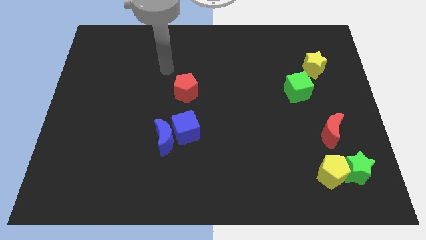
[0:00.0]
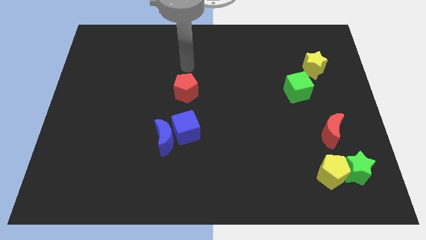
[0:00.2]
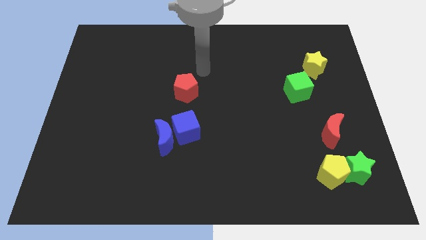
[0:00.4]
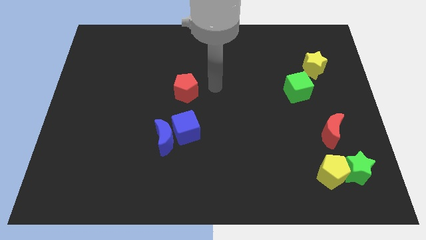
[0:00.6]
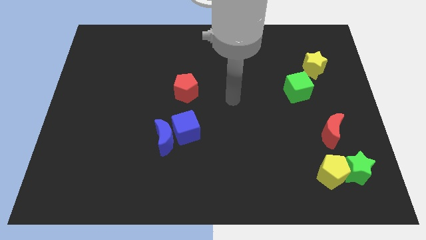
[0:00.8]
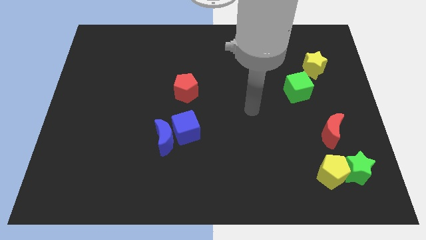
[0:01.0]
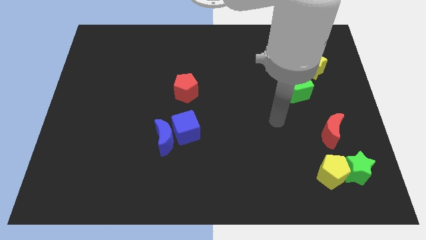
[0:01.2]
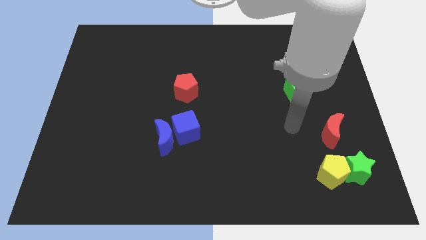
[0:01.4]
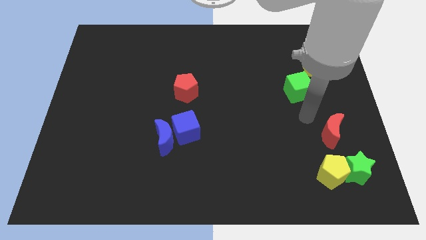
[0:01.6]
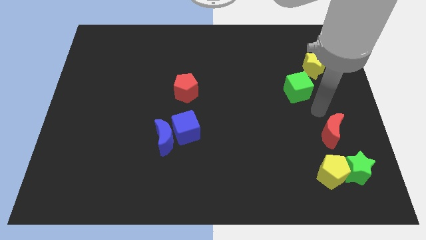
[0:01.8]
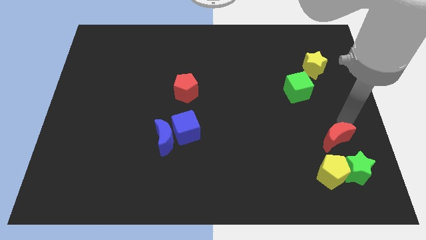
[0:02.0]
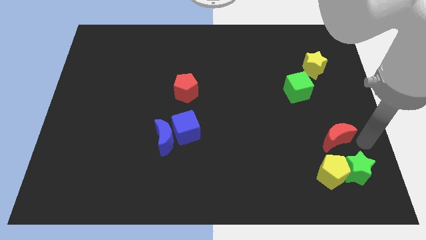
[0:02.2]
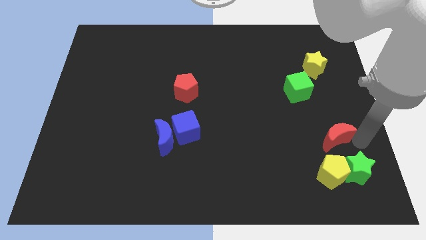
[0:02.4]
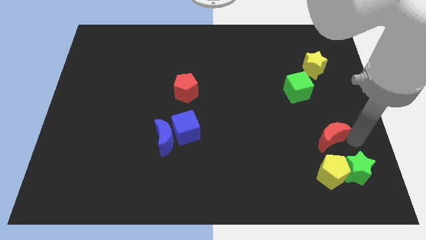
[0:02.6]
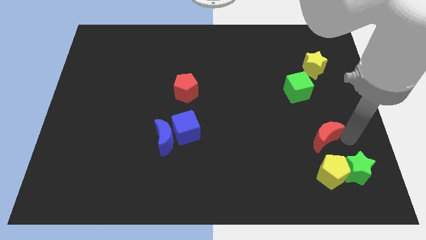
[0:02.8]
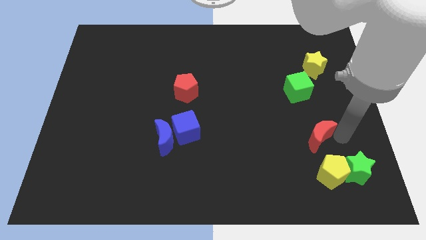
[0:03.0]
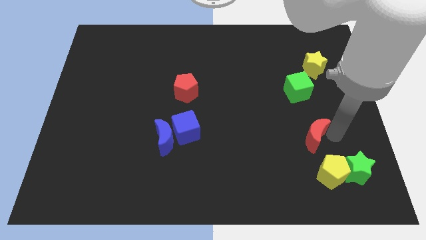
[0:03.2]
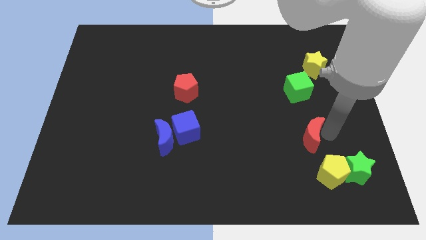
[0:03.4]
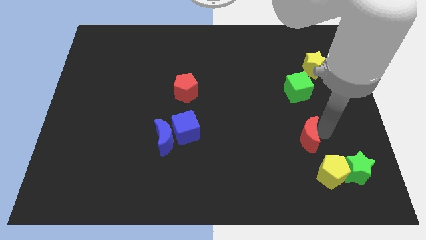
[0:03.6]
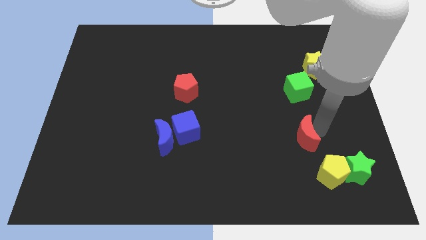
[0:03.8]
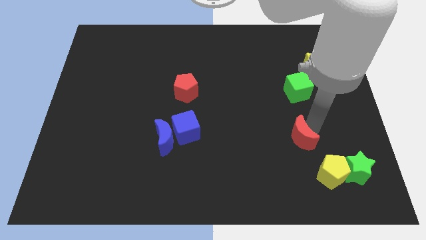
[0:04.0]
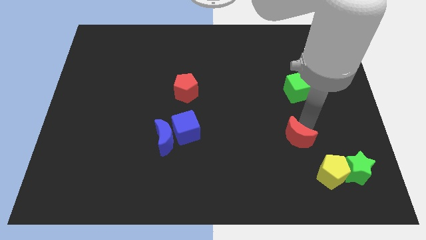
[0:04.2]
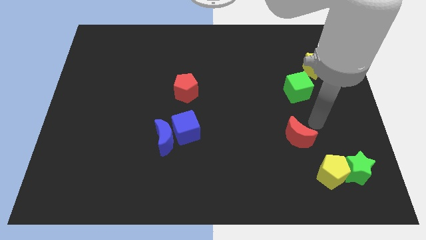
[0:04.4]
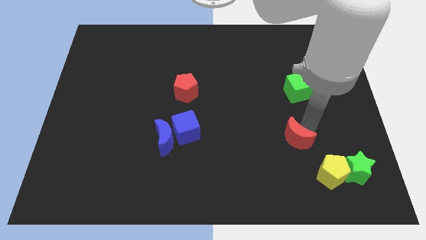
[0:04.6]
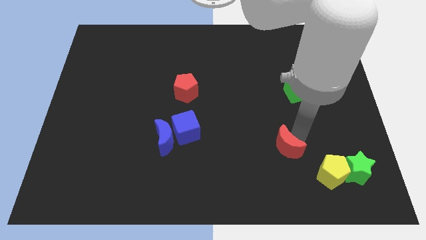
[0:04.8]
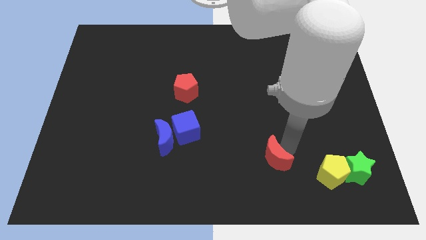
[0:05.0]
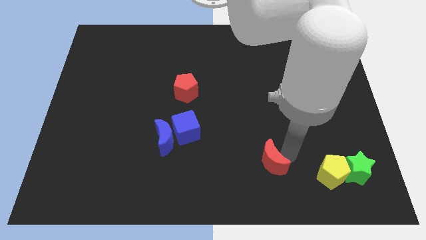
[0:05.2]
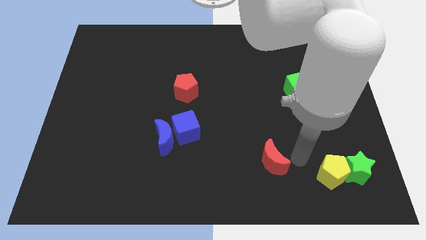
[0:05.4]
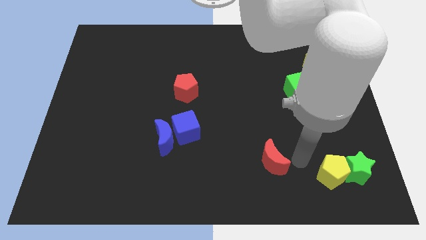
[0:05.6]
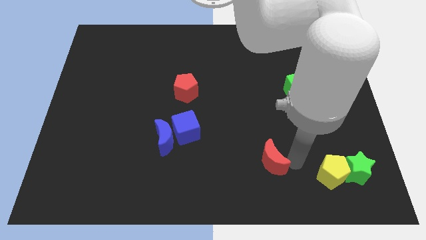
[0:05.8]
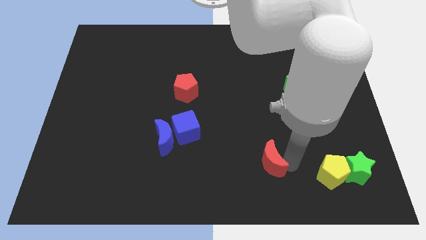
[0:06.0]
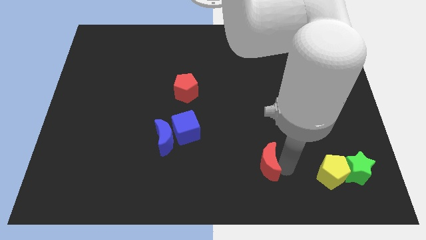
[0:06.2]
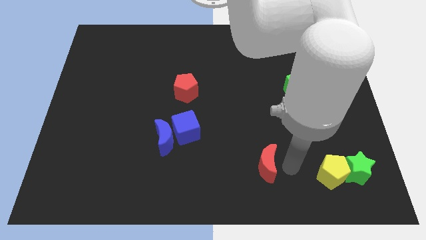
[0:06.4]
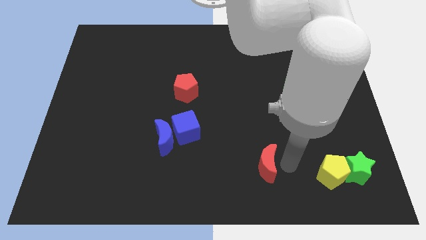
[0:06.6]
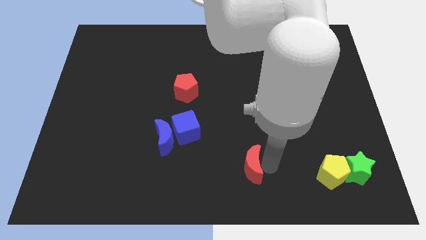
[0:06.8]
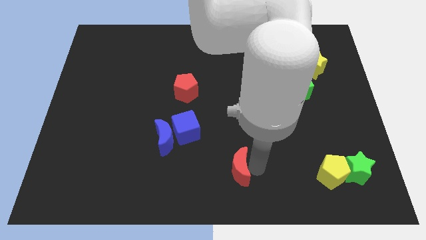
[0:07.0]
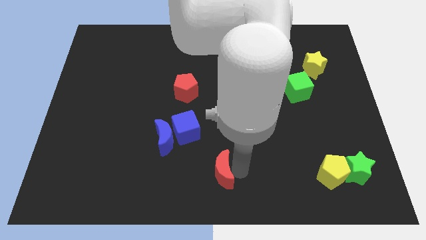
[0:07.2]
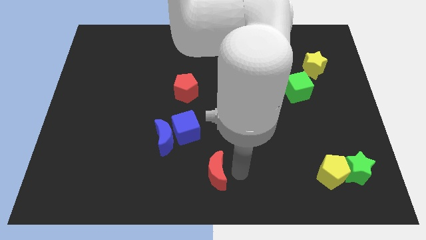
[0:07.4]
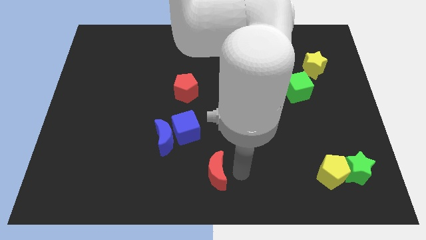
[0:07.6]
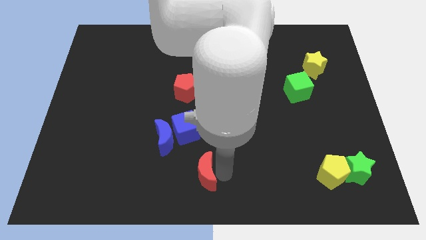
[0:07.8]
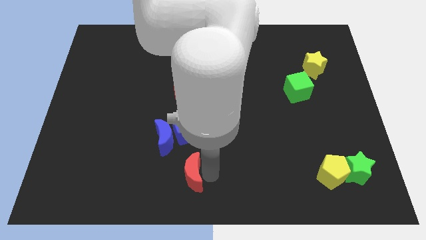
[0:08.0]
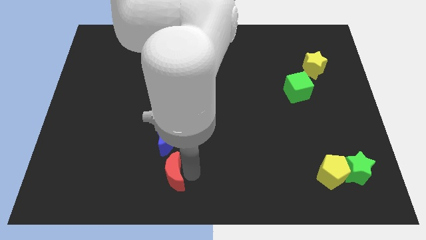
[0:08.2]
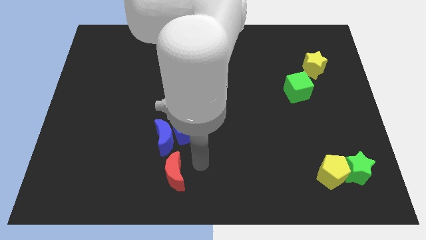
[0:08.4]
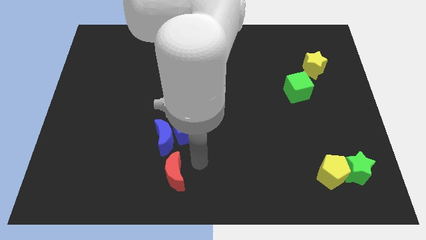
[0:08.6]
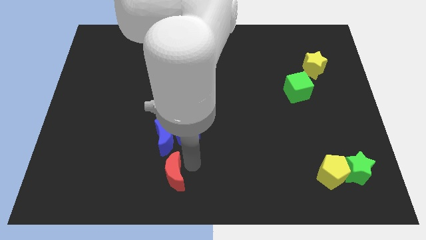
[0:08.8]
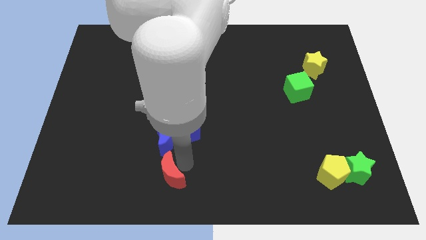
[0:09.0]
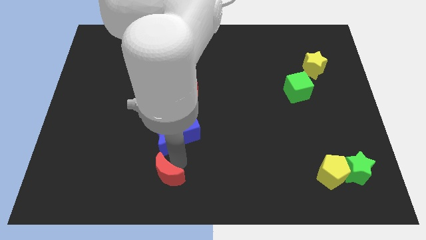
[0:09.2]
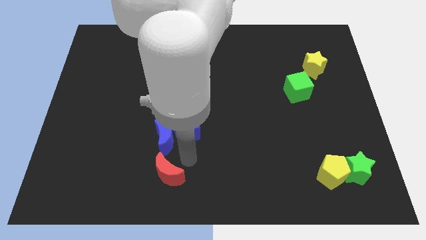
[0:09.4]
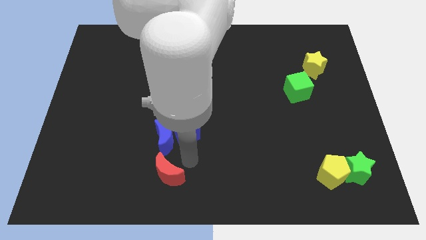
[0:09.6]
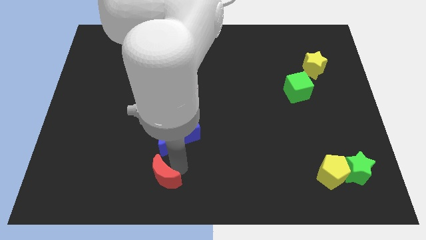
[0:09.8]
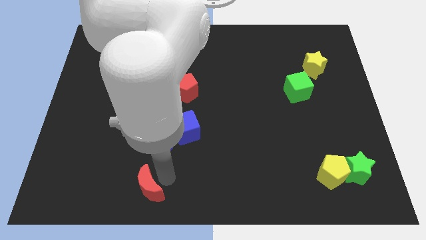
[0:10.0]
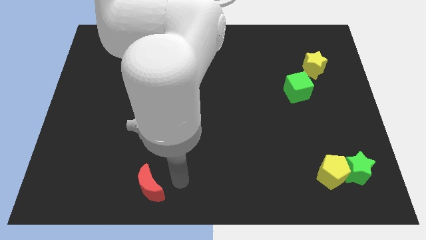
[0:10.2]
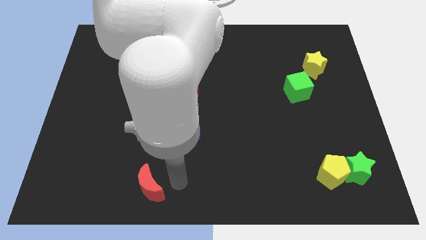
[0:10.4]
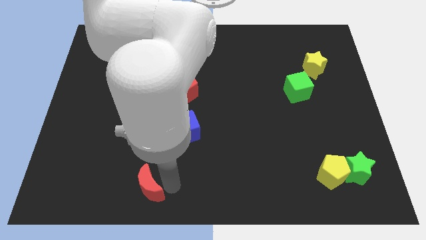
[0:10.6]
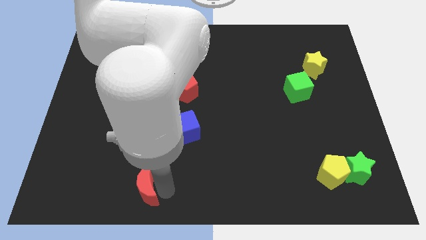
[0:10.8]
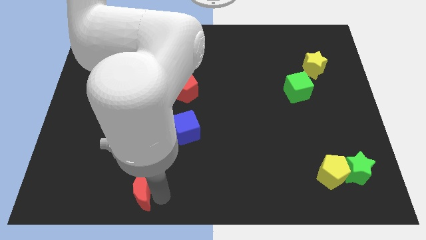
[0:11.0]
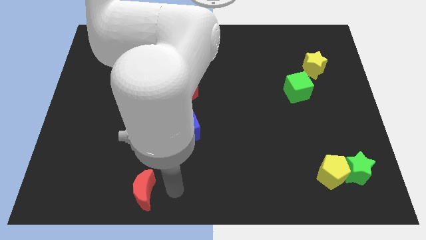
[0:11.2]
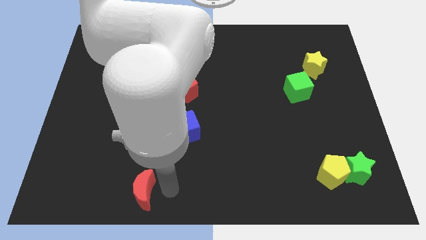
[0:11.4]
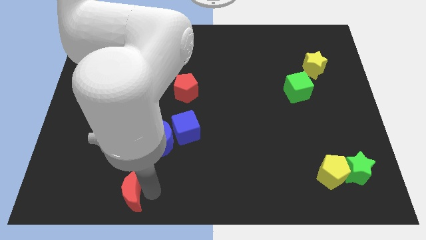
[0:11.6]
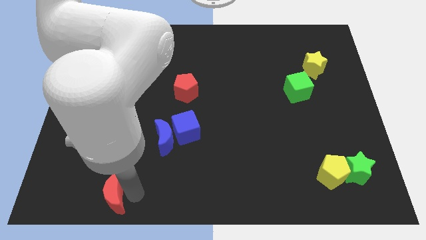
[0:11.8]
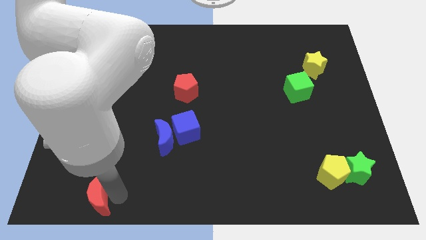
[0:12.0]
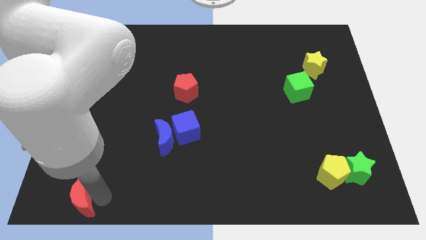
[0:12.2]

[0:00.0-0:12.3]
slide the red moon to the bottom left of the board
